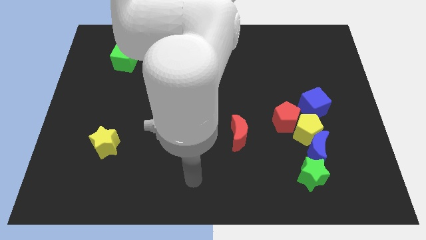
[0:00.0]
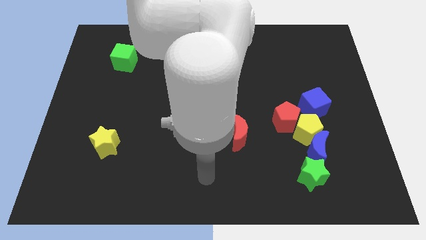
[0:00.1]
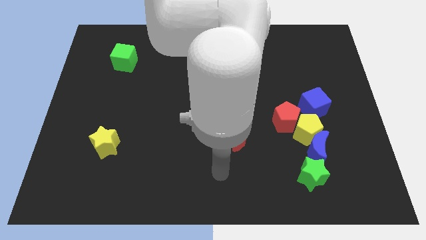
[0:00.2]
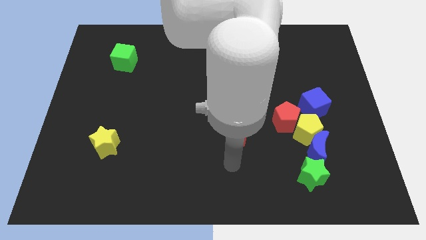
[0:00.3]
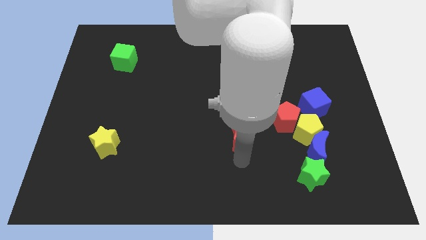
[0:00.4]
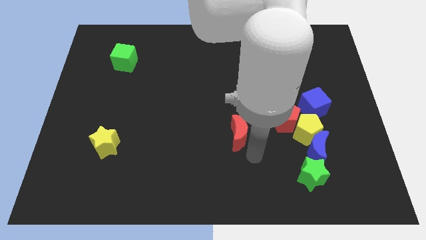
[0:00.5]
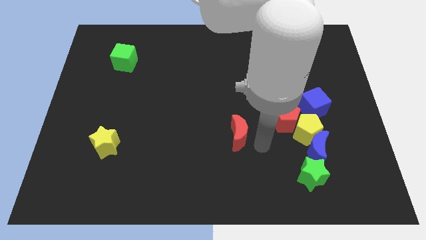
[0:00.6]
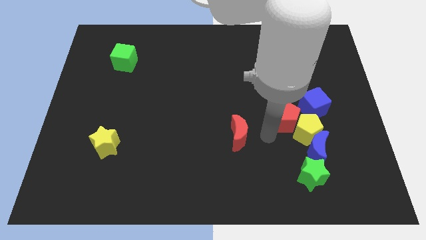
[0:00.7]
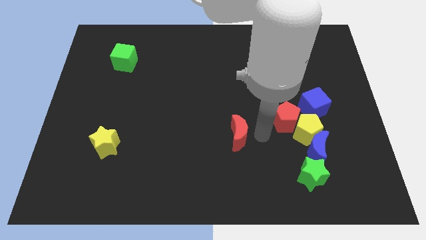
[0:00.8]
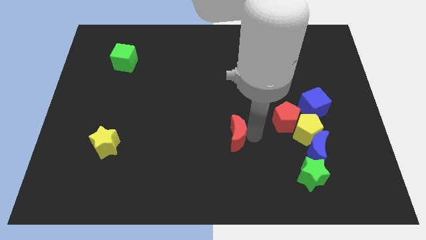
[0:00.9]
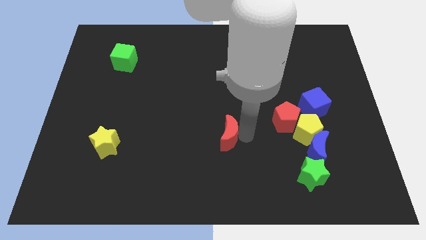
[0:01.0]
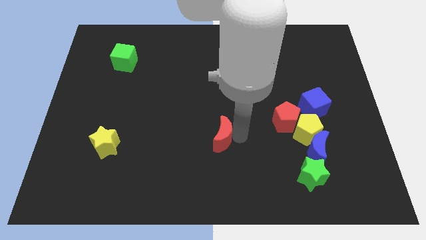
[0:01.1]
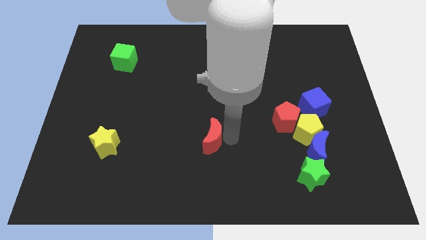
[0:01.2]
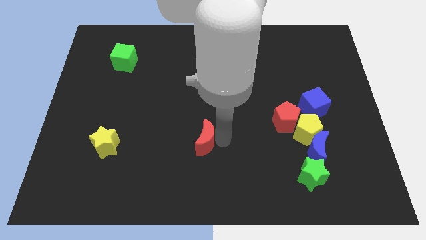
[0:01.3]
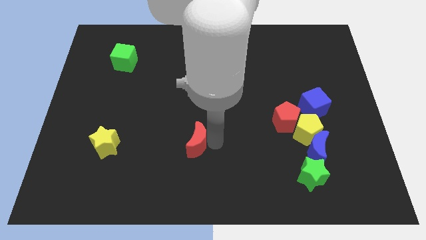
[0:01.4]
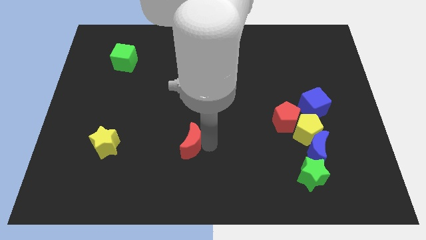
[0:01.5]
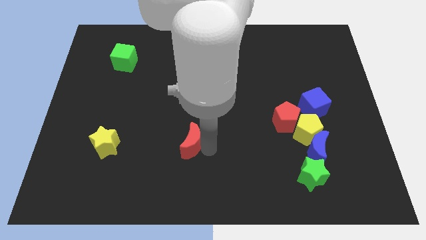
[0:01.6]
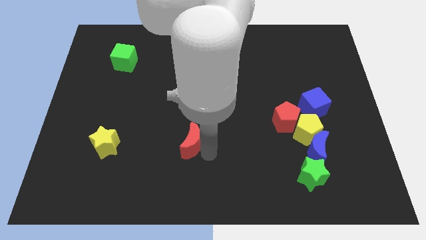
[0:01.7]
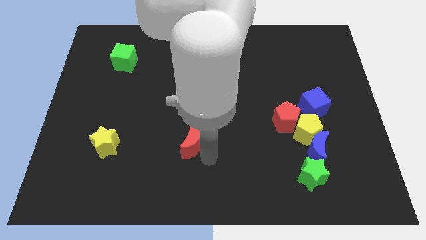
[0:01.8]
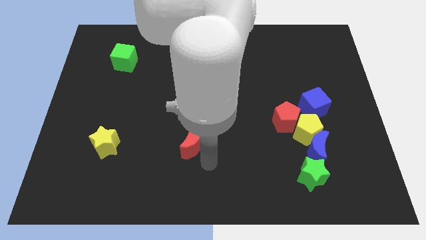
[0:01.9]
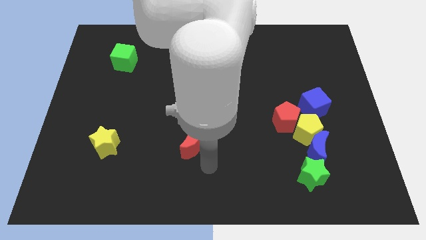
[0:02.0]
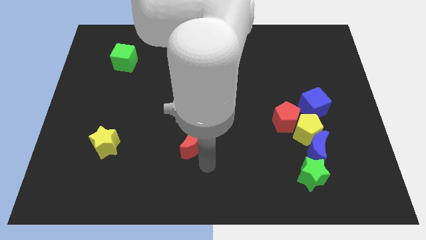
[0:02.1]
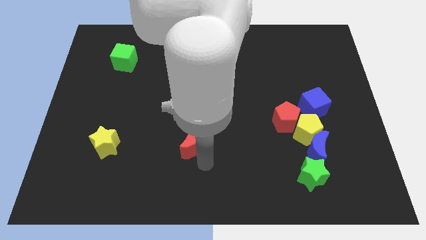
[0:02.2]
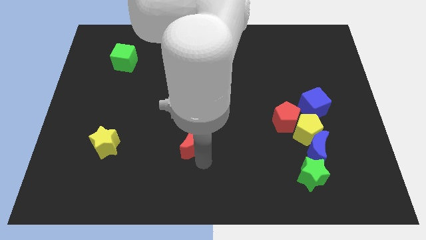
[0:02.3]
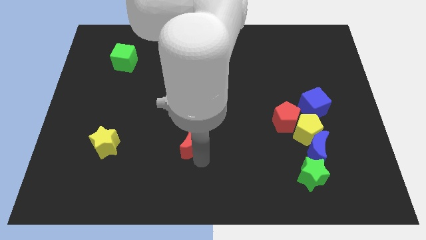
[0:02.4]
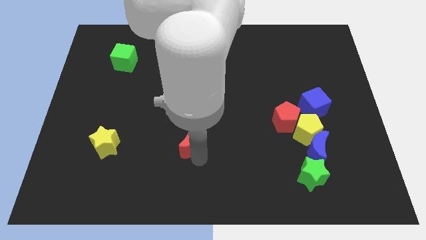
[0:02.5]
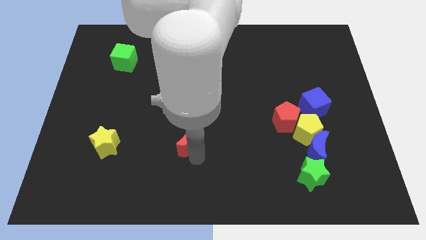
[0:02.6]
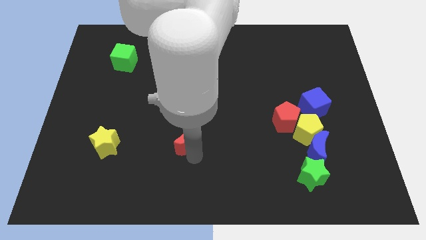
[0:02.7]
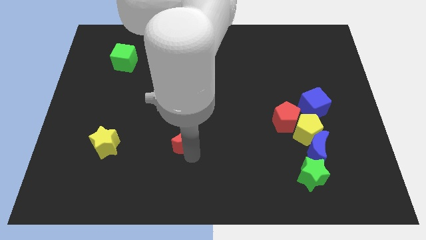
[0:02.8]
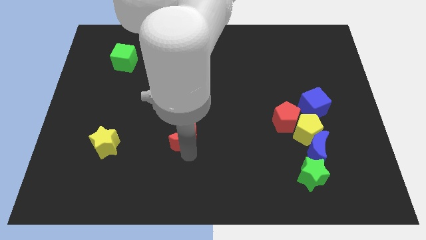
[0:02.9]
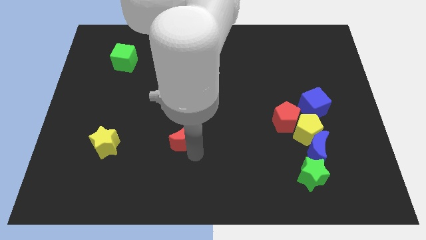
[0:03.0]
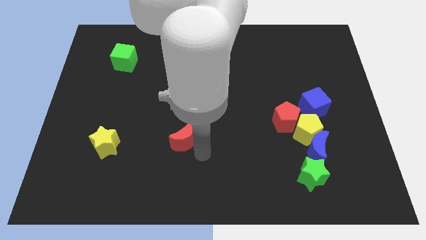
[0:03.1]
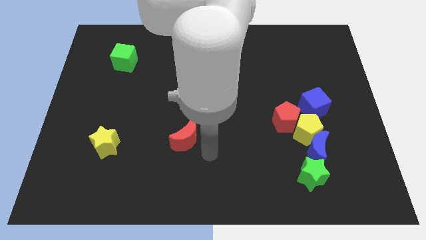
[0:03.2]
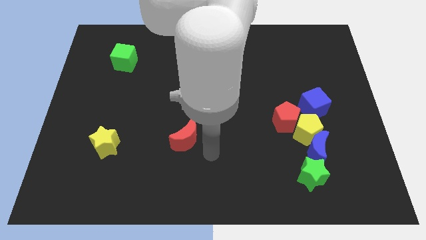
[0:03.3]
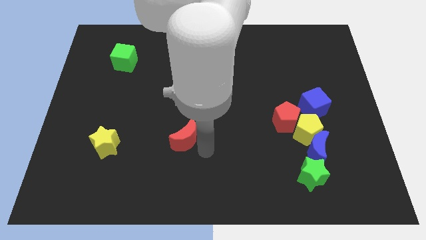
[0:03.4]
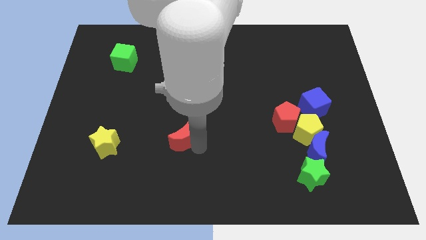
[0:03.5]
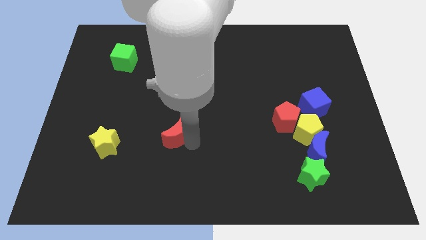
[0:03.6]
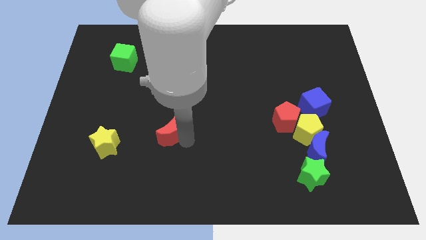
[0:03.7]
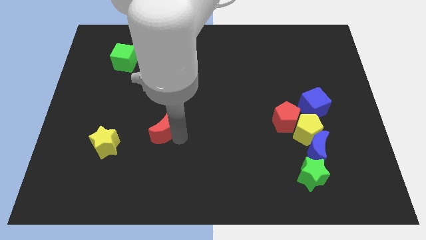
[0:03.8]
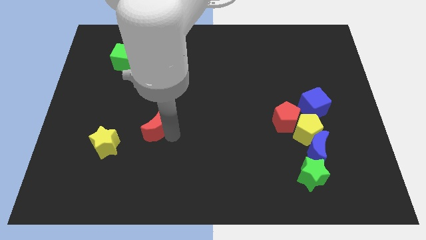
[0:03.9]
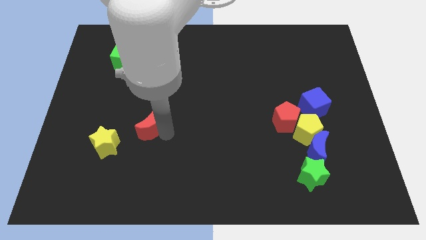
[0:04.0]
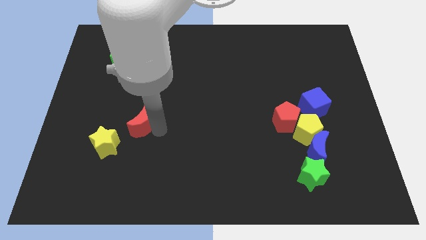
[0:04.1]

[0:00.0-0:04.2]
move the red moon to the left

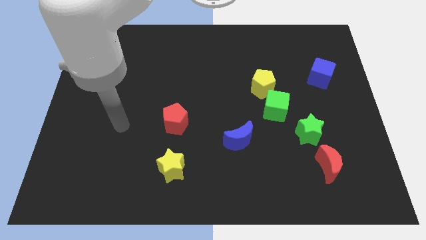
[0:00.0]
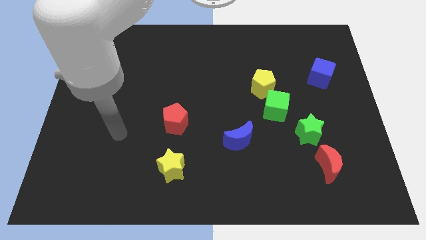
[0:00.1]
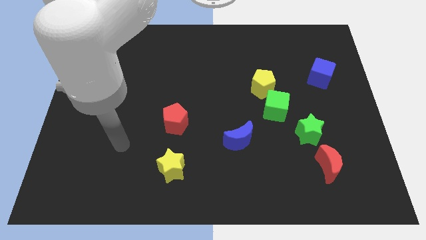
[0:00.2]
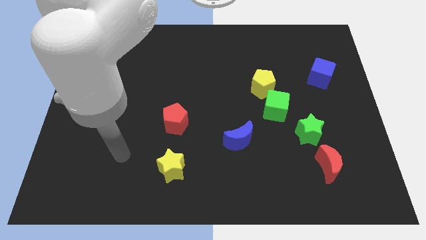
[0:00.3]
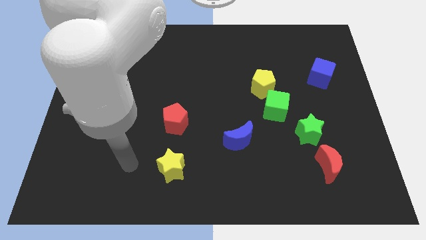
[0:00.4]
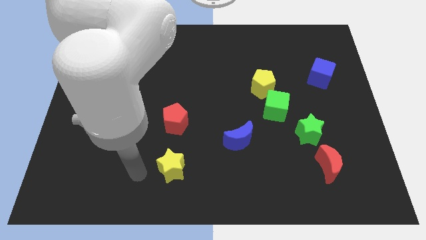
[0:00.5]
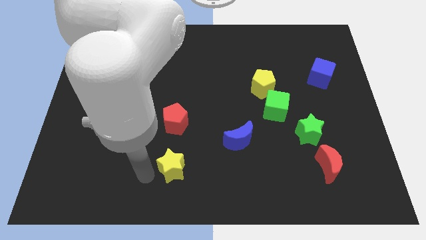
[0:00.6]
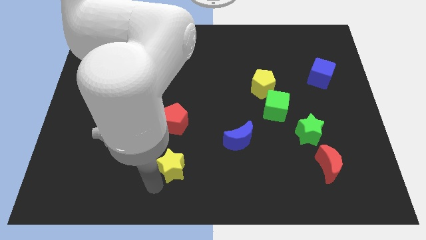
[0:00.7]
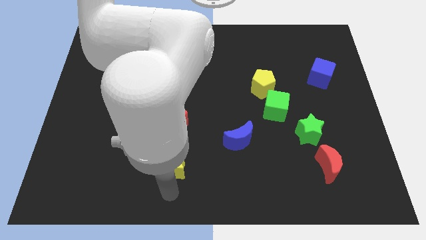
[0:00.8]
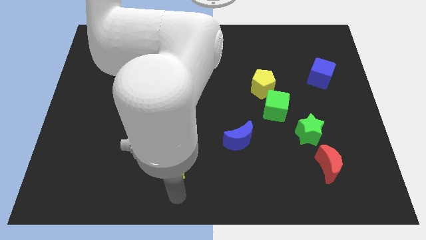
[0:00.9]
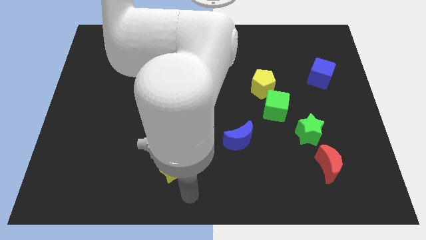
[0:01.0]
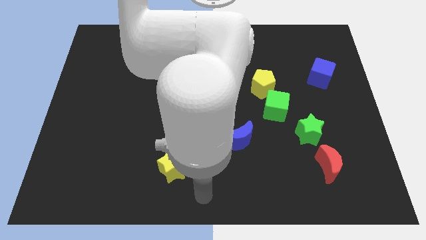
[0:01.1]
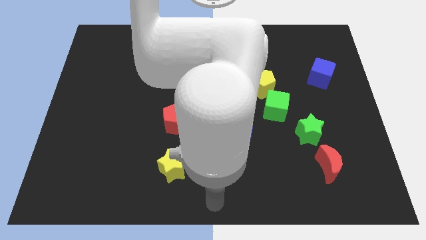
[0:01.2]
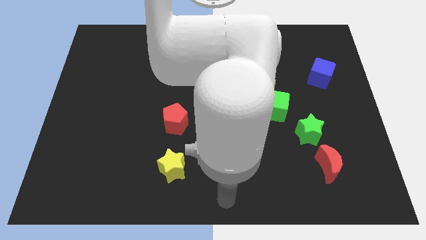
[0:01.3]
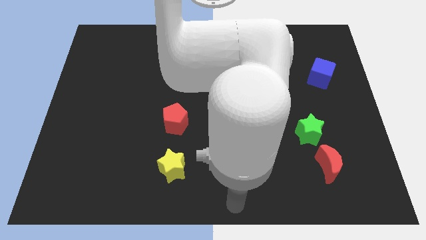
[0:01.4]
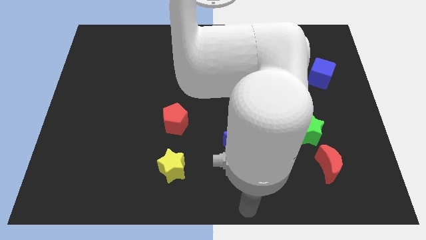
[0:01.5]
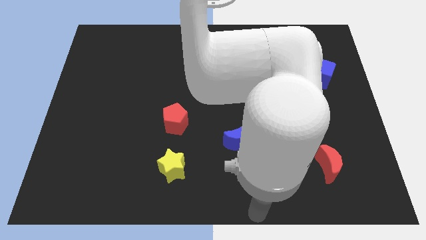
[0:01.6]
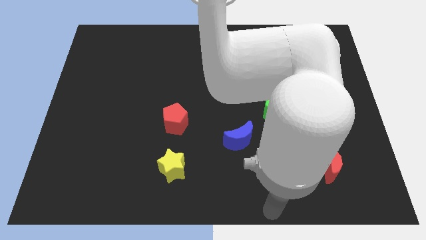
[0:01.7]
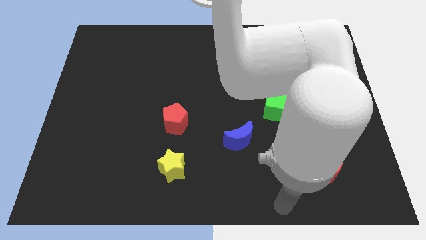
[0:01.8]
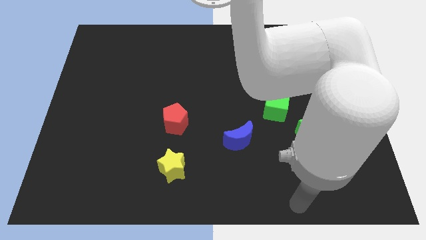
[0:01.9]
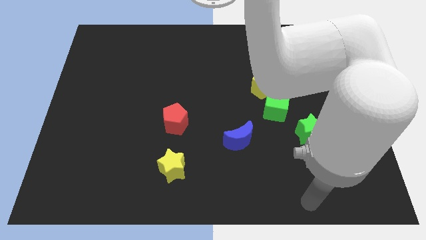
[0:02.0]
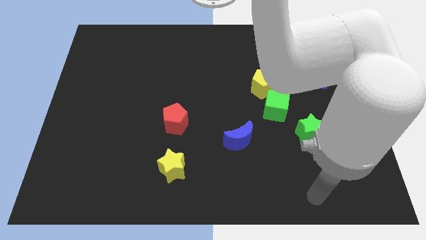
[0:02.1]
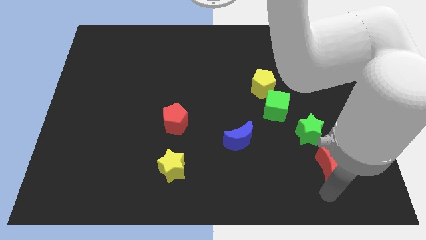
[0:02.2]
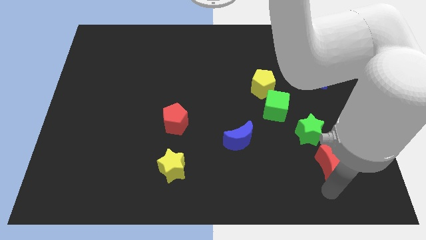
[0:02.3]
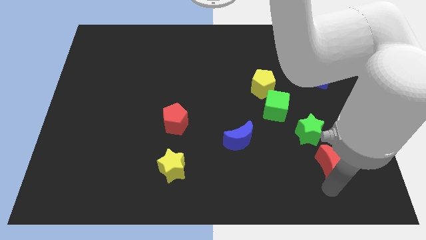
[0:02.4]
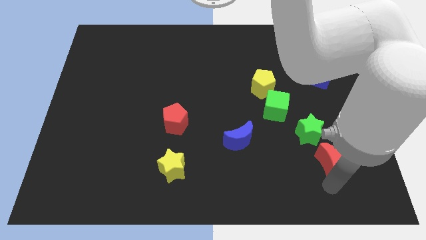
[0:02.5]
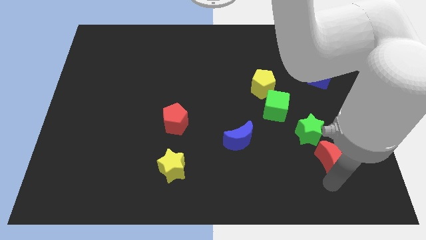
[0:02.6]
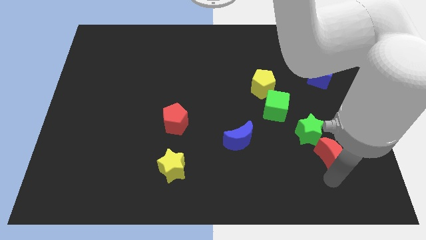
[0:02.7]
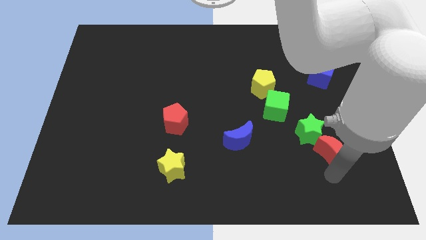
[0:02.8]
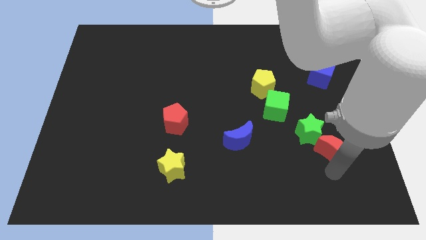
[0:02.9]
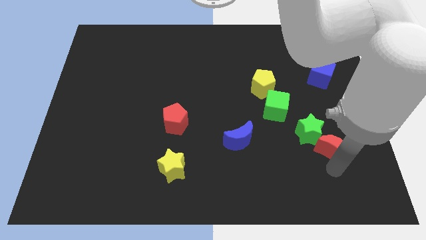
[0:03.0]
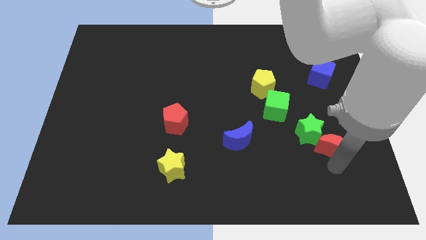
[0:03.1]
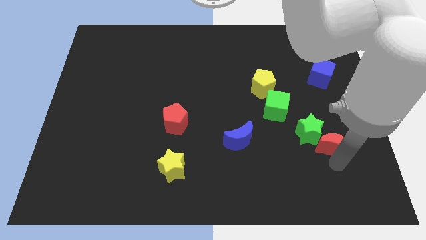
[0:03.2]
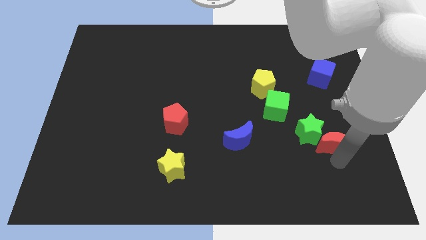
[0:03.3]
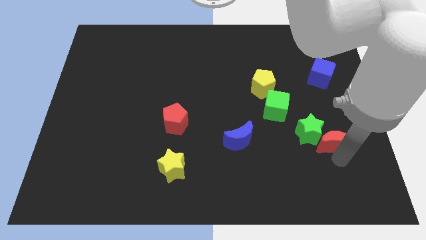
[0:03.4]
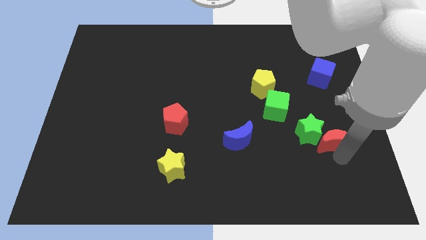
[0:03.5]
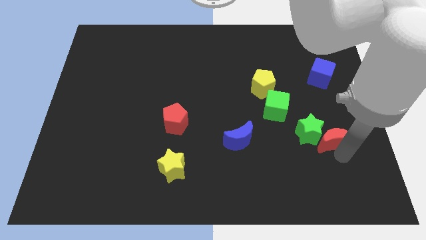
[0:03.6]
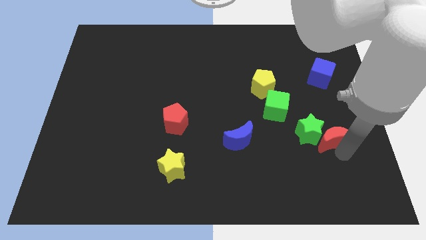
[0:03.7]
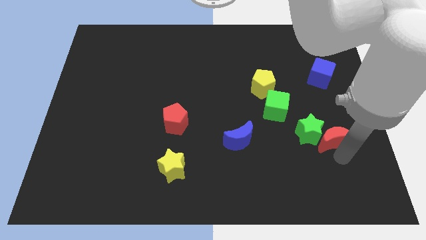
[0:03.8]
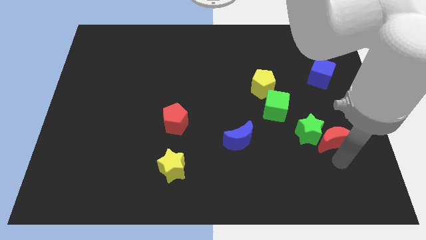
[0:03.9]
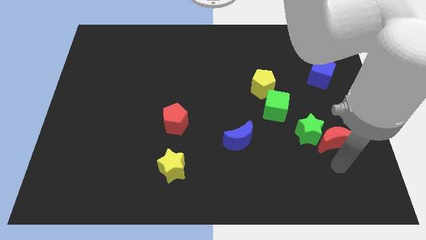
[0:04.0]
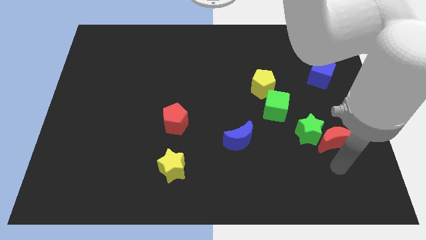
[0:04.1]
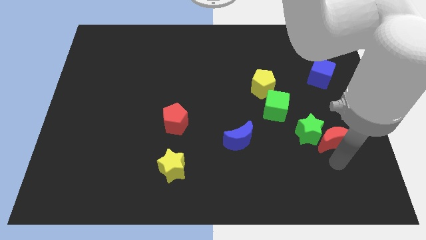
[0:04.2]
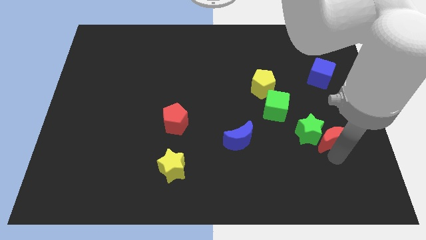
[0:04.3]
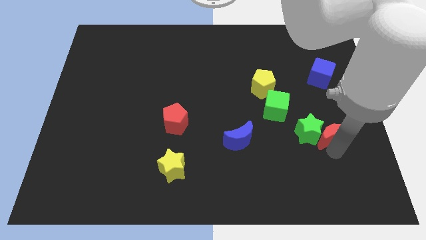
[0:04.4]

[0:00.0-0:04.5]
push the red moon upwards a little
